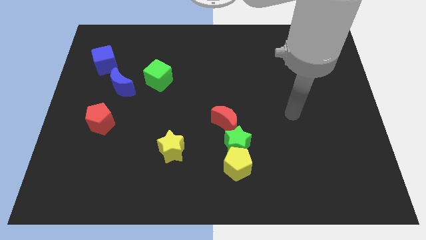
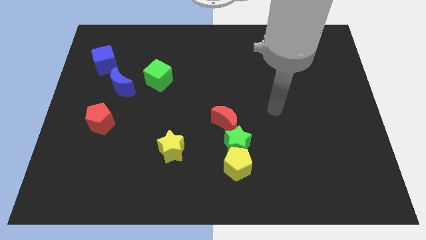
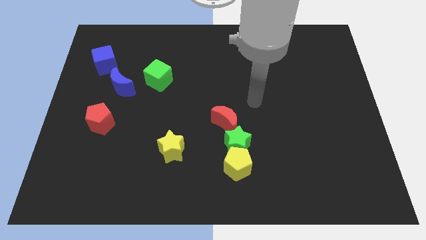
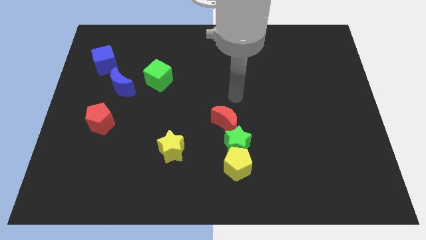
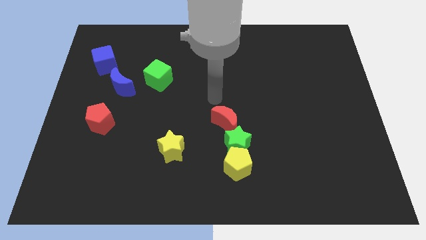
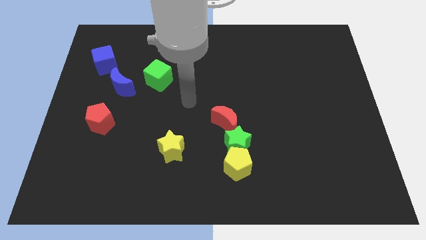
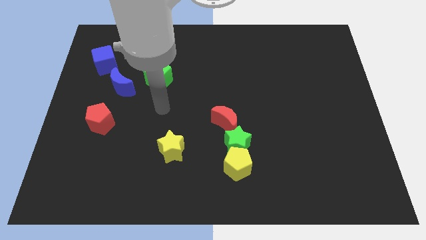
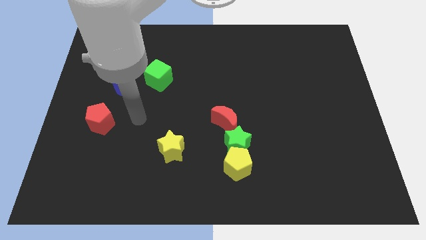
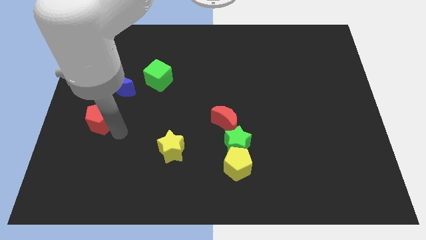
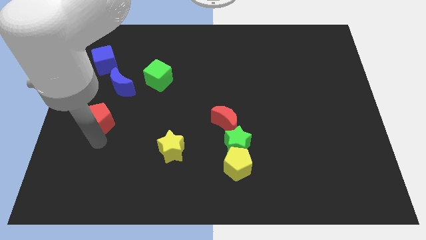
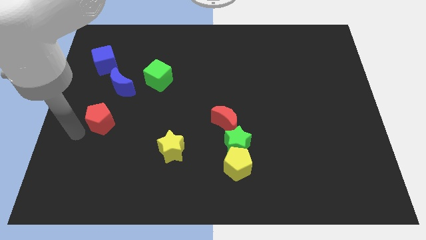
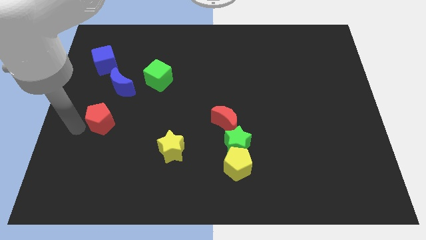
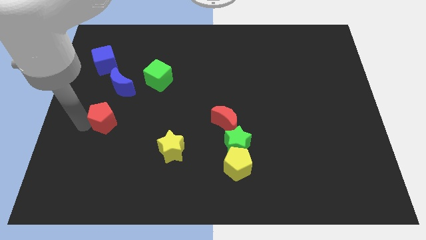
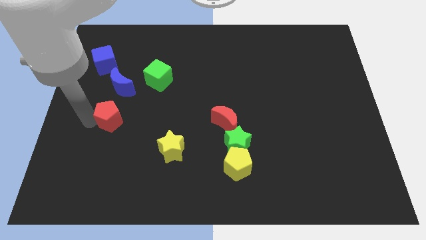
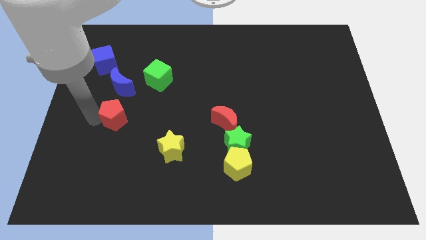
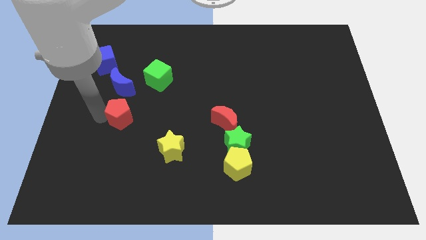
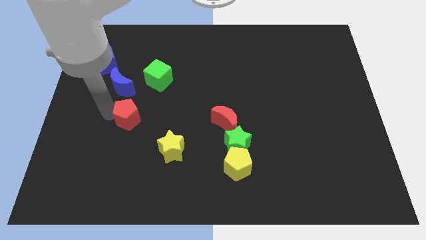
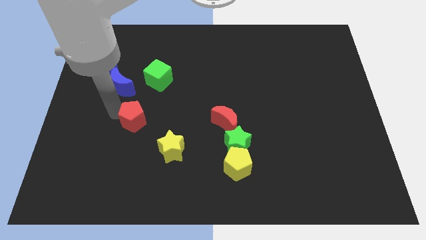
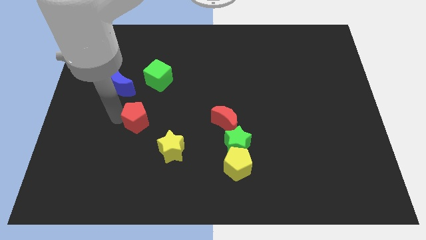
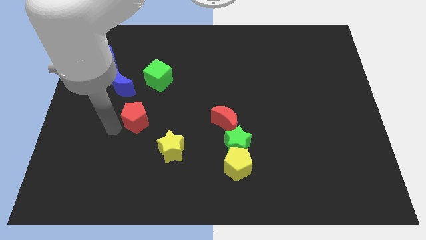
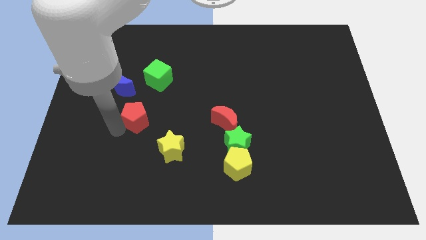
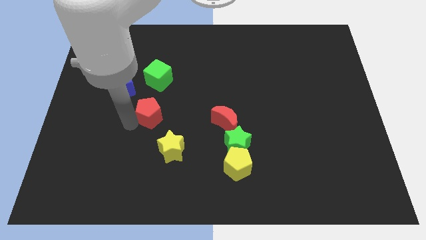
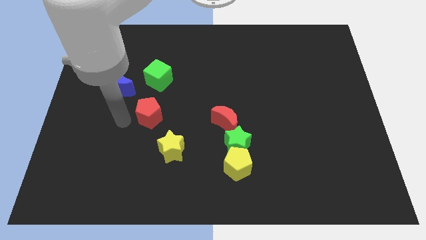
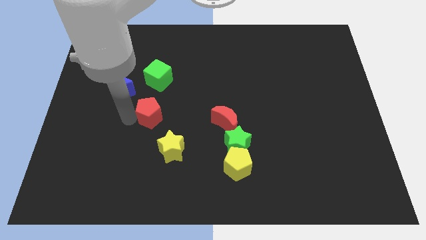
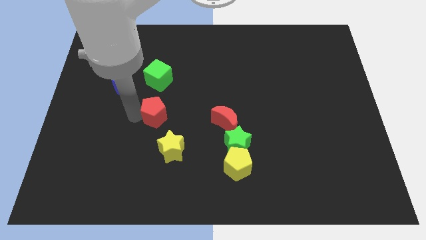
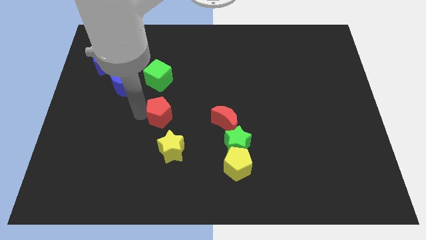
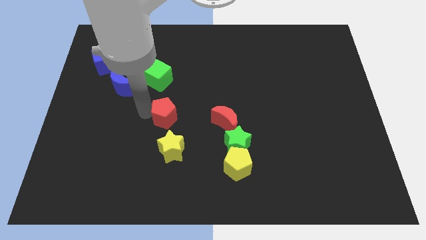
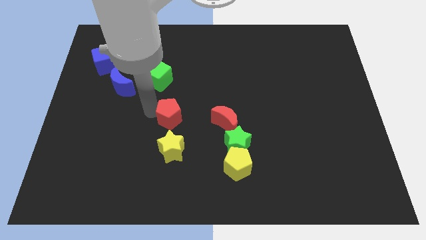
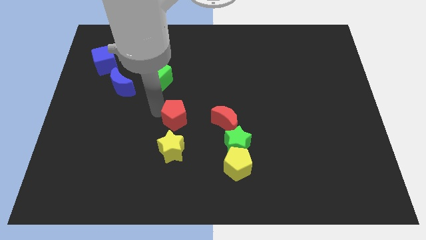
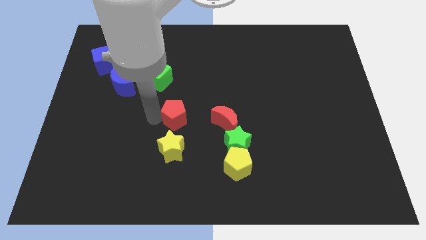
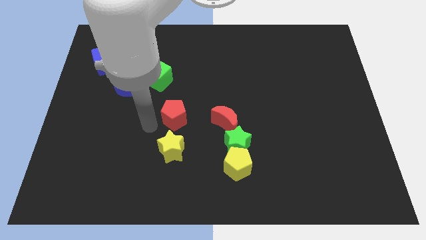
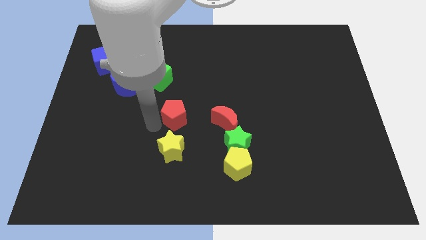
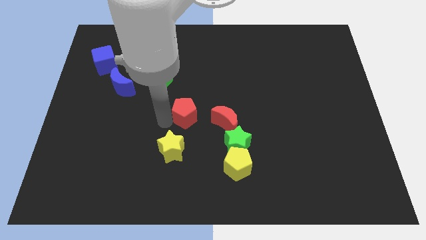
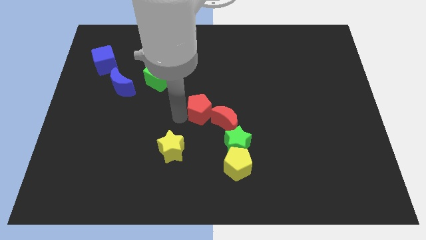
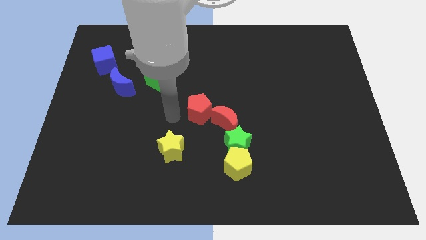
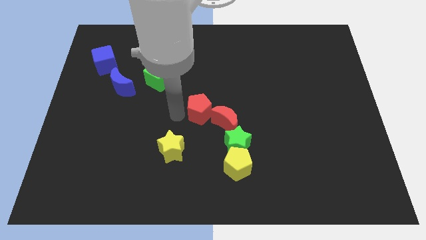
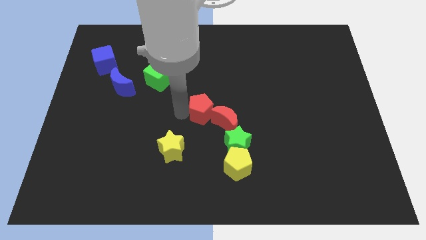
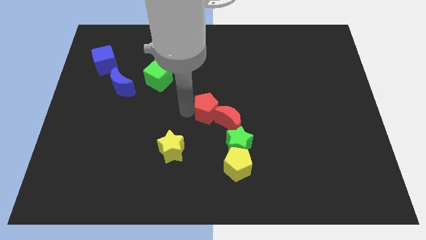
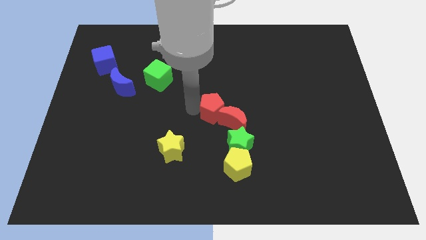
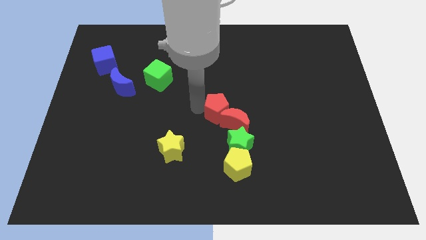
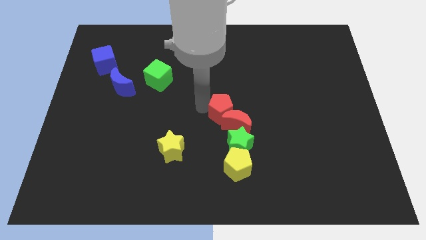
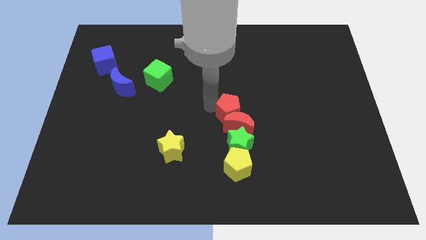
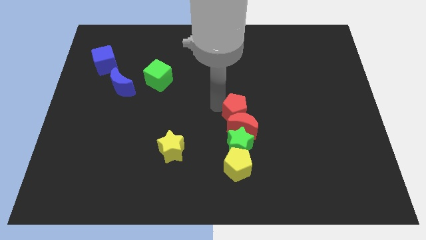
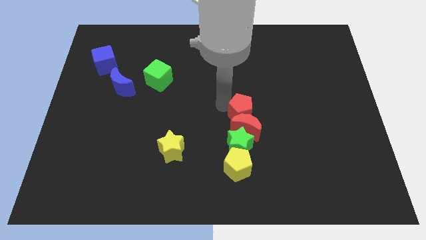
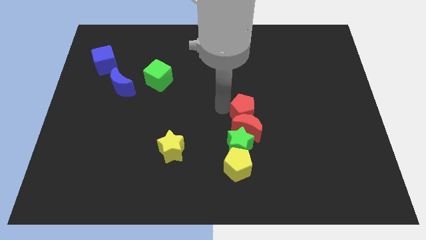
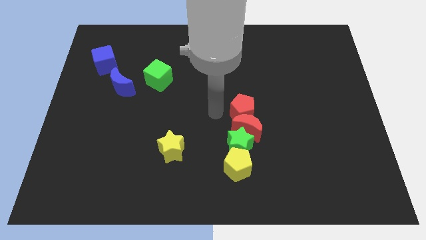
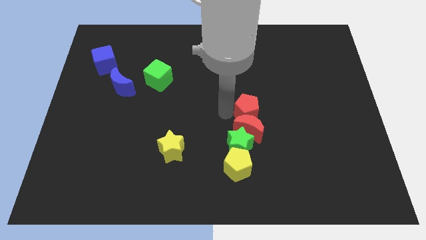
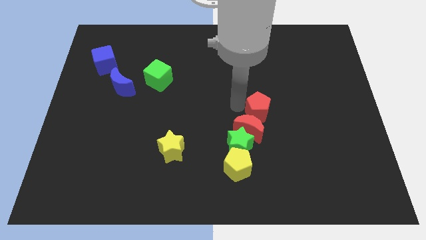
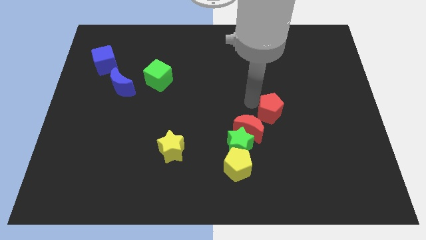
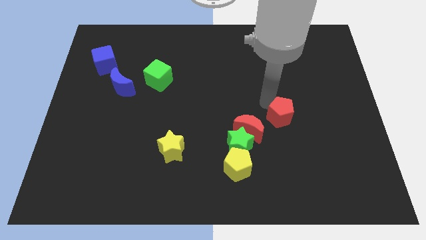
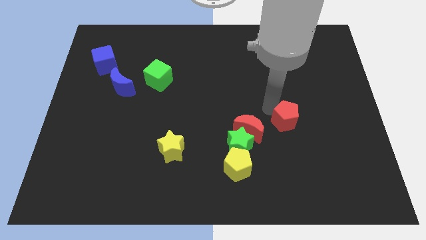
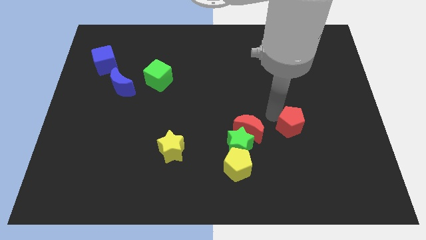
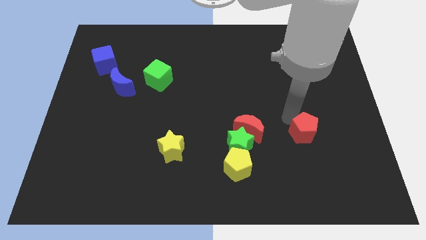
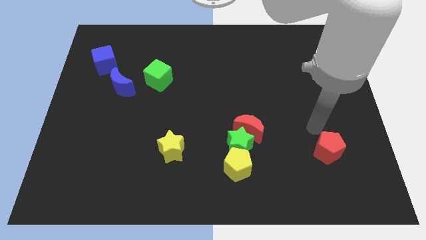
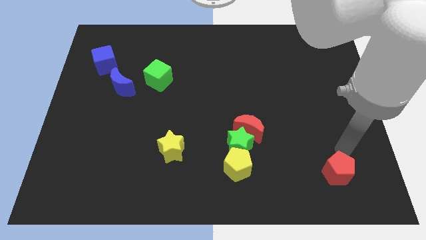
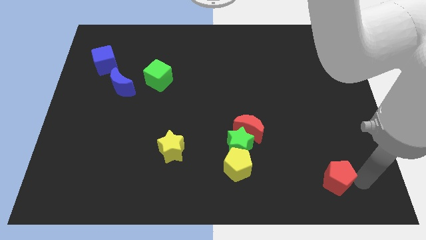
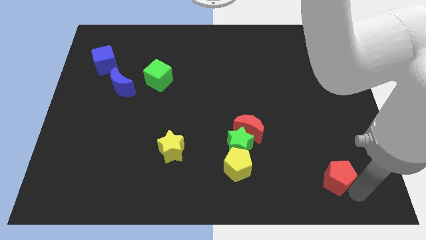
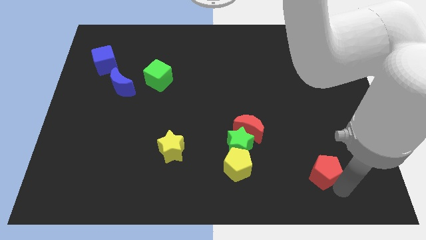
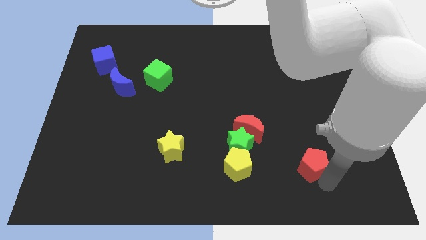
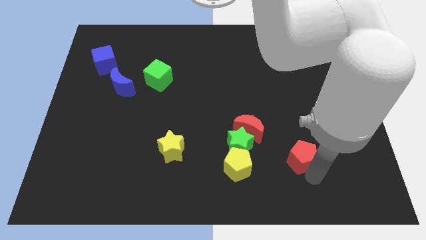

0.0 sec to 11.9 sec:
push the red pentagon diagonally down and to the right of the red moon

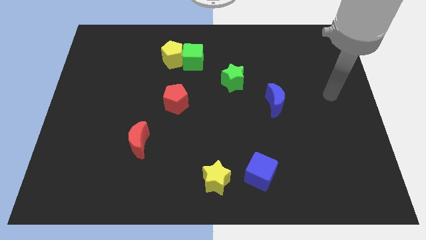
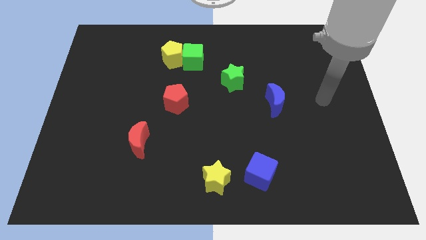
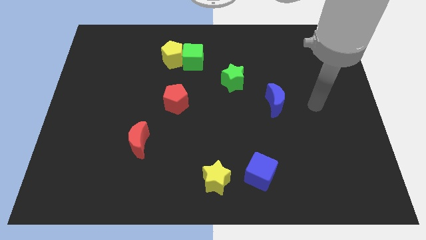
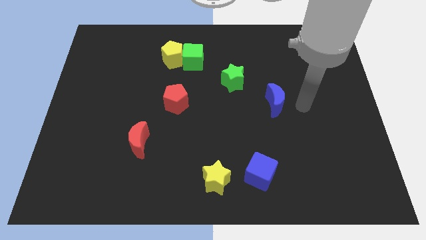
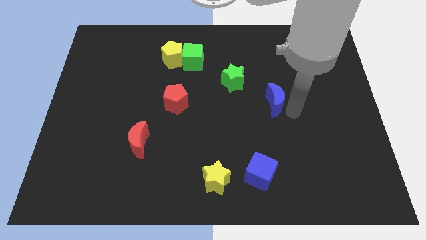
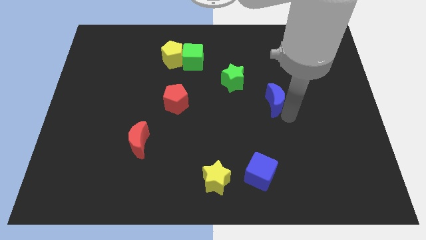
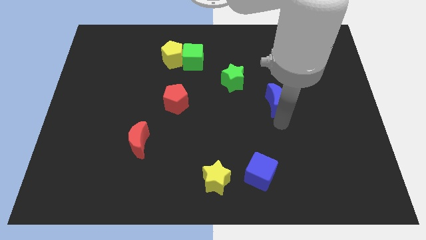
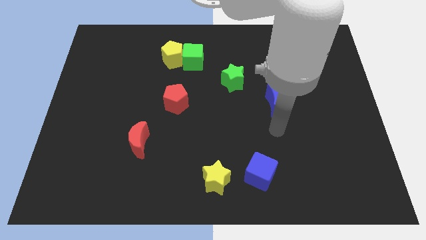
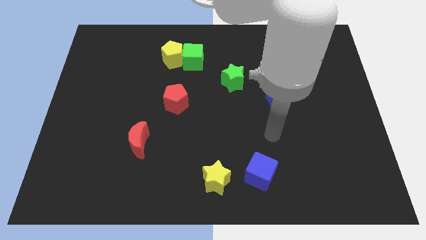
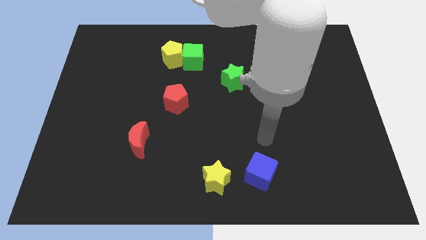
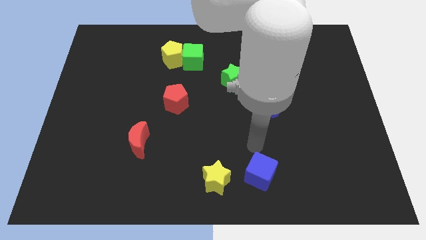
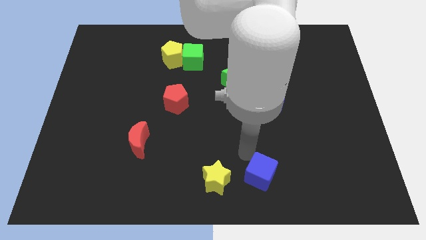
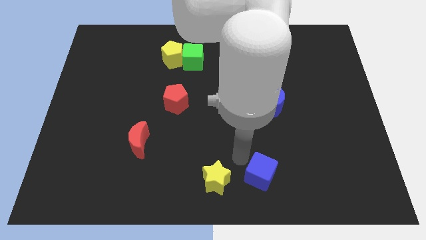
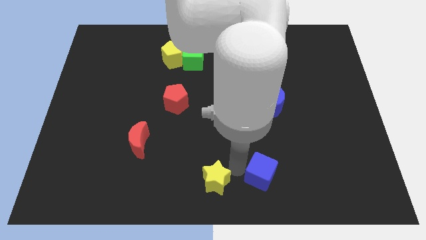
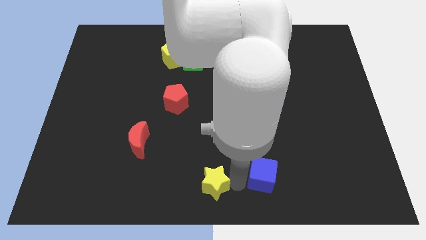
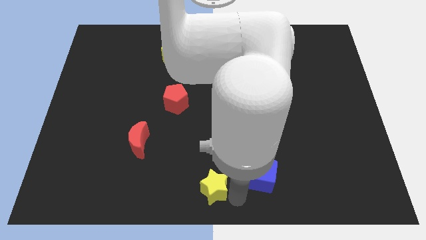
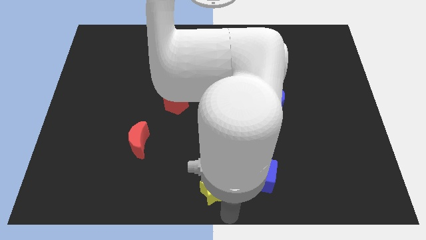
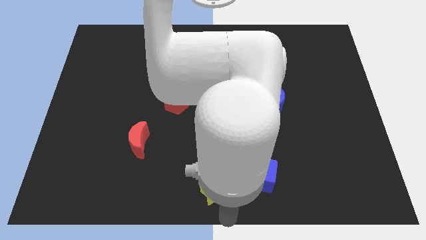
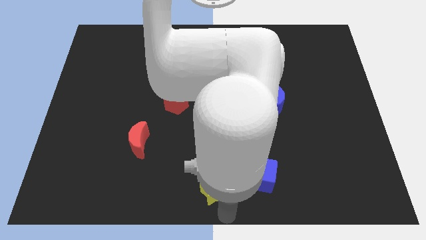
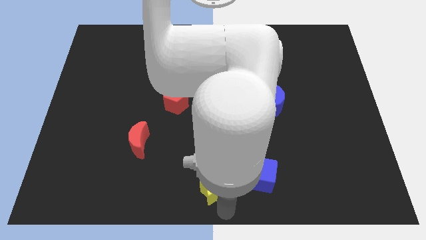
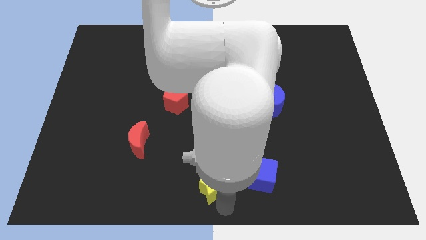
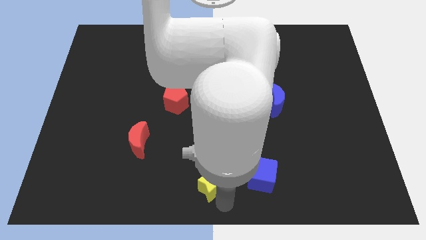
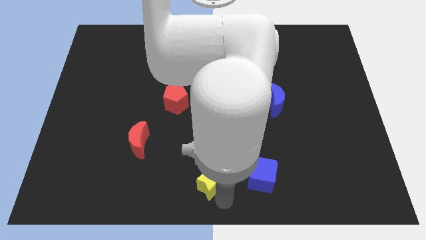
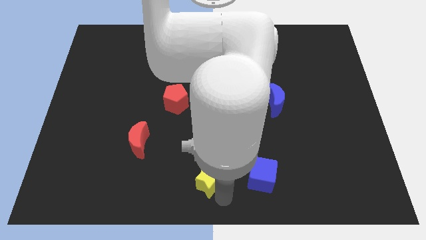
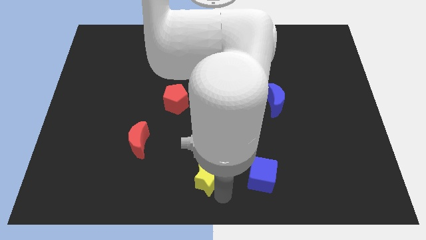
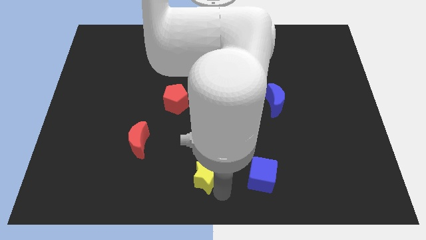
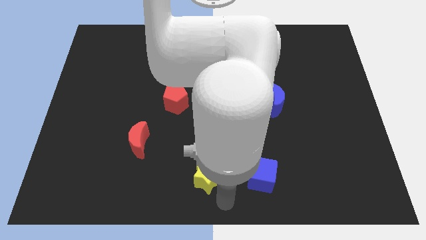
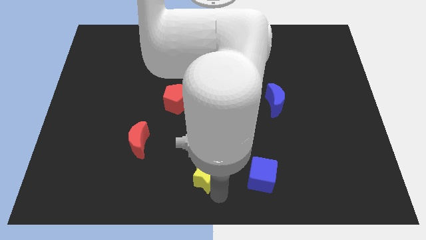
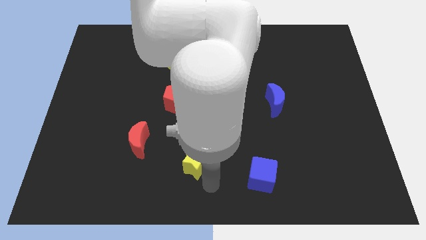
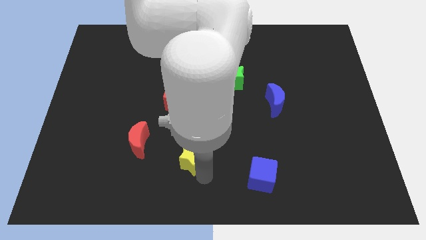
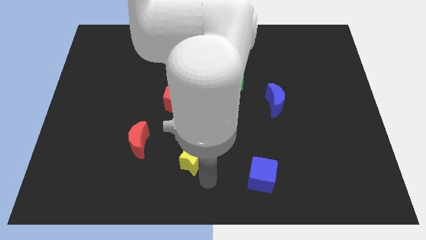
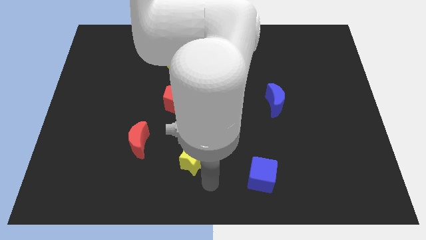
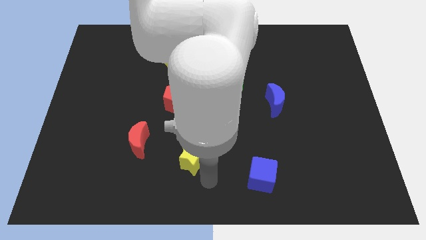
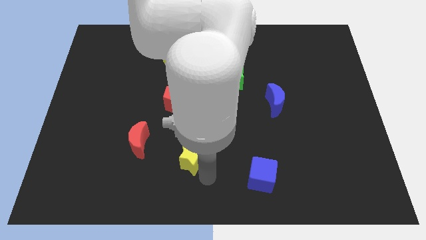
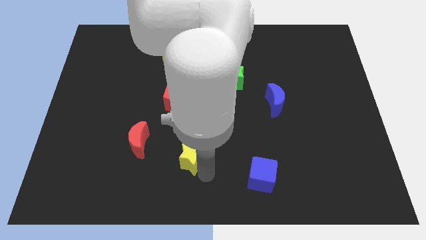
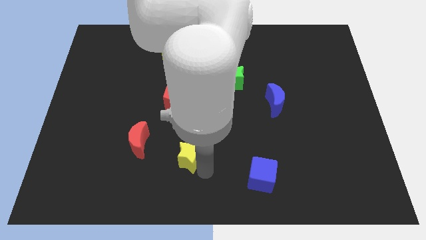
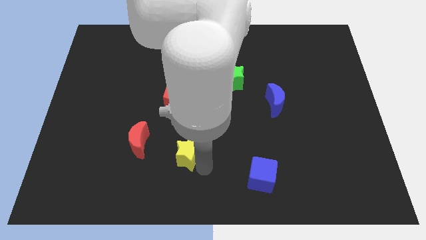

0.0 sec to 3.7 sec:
move the yellow star to the bottom of the red pentagon
